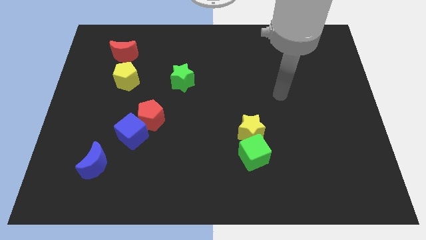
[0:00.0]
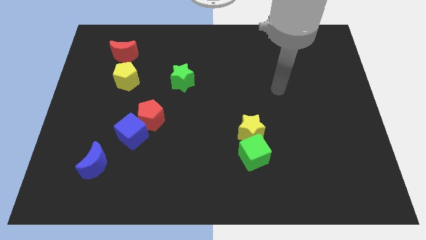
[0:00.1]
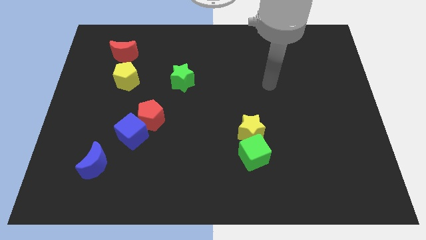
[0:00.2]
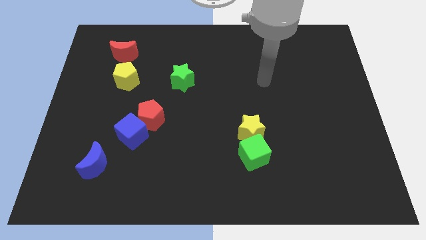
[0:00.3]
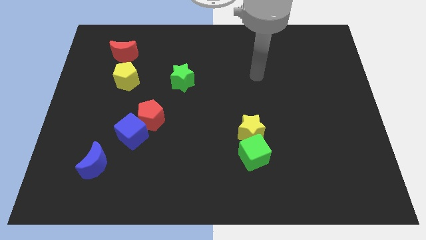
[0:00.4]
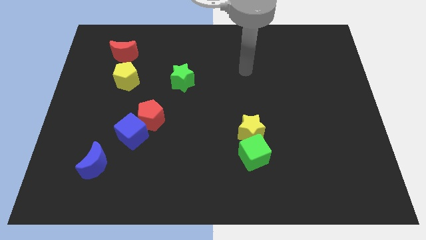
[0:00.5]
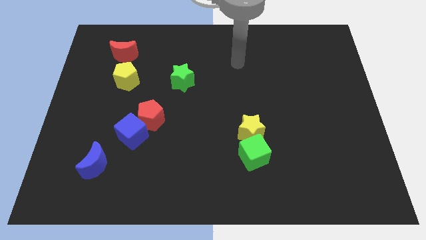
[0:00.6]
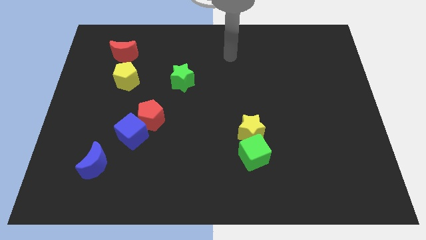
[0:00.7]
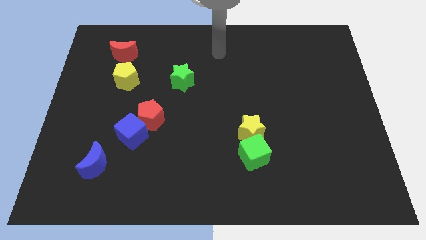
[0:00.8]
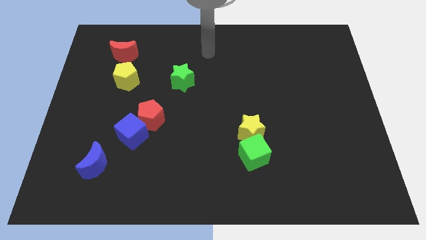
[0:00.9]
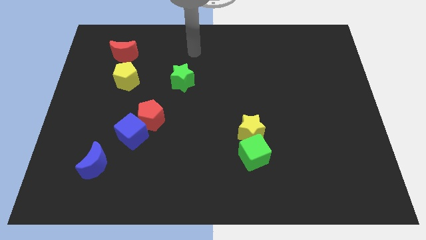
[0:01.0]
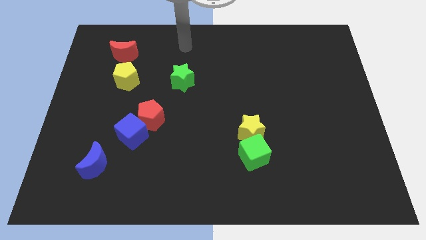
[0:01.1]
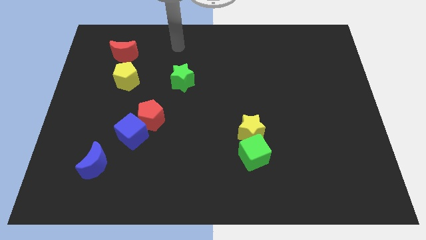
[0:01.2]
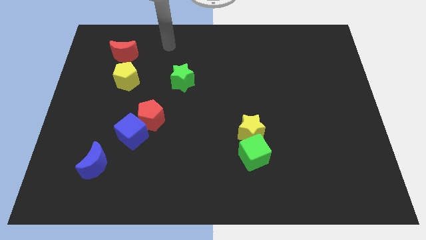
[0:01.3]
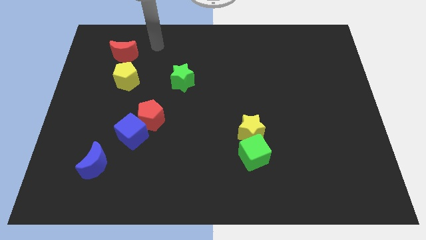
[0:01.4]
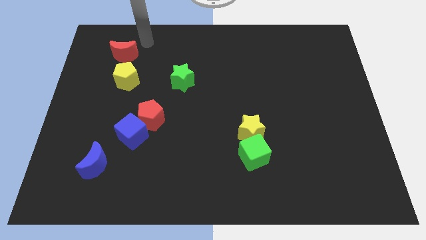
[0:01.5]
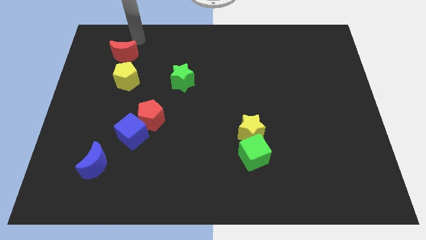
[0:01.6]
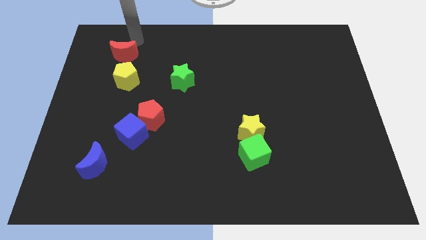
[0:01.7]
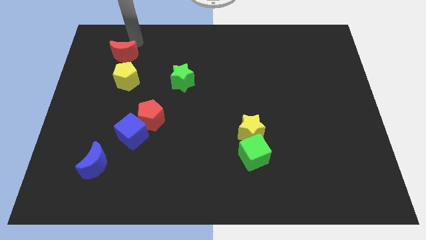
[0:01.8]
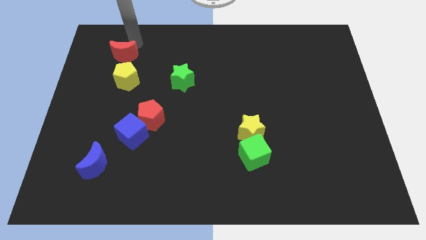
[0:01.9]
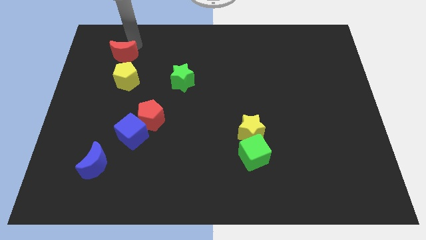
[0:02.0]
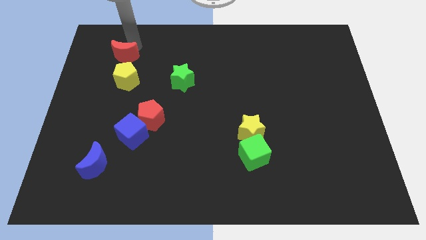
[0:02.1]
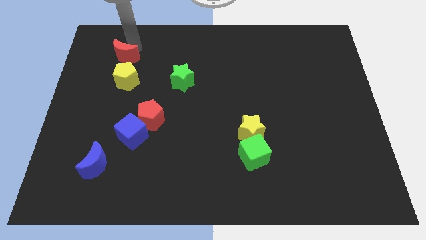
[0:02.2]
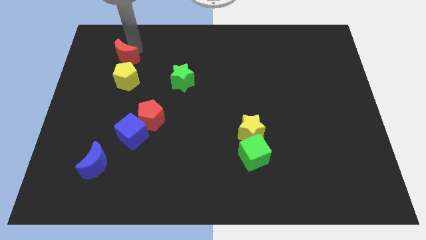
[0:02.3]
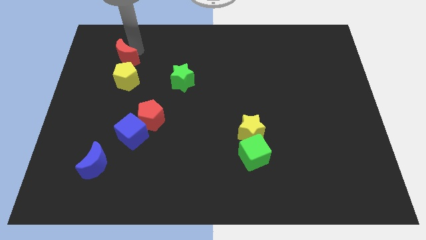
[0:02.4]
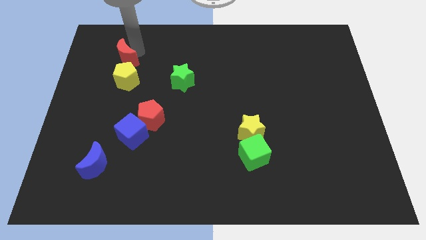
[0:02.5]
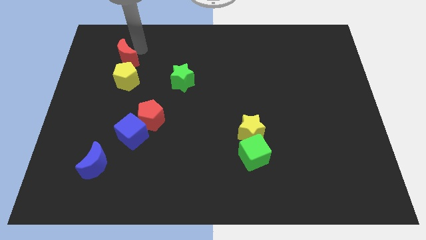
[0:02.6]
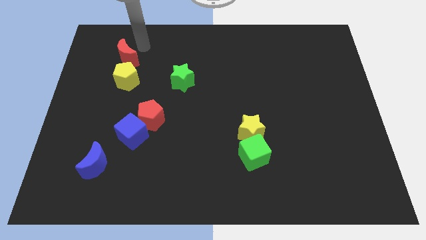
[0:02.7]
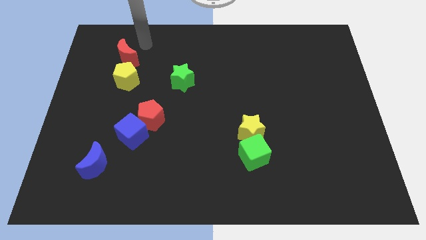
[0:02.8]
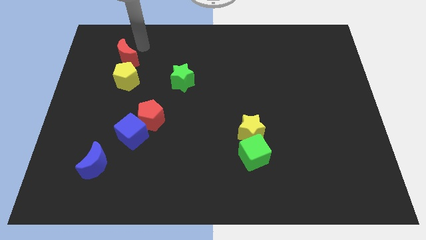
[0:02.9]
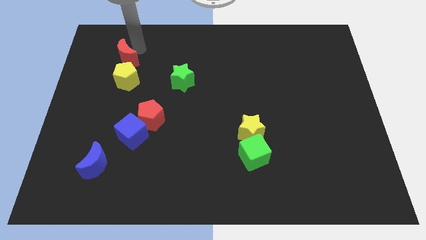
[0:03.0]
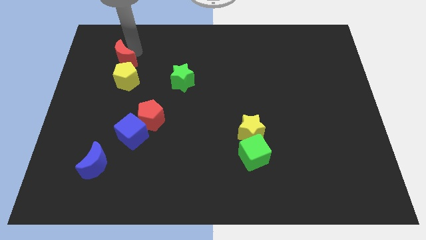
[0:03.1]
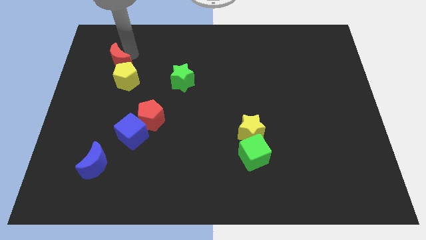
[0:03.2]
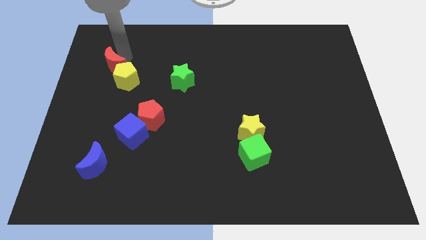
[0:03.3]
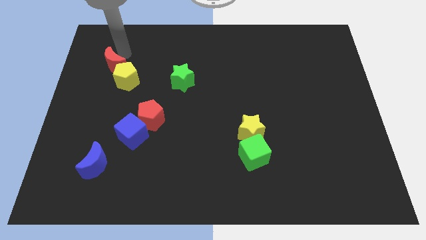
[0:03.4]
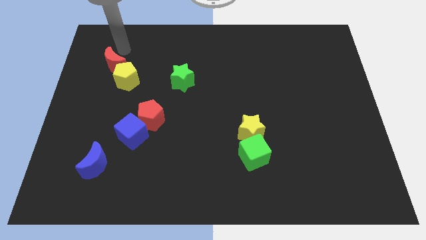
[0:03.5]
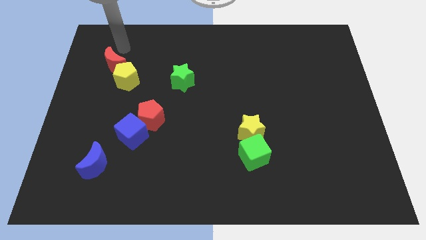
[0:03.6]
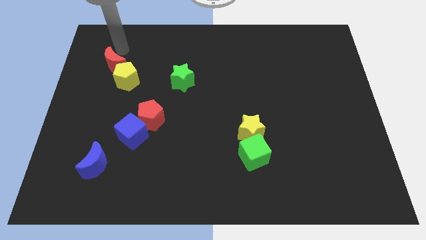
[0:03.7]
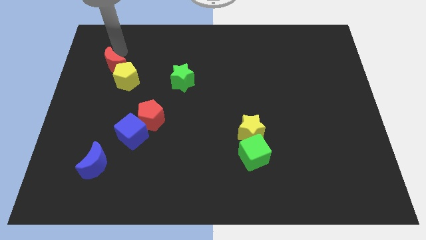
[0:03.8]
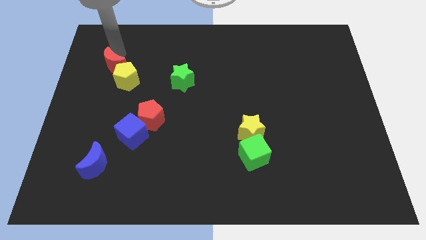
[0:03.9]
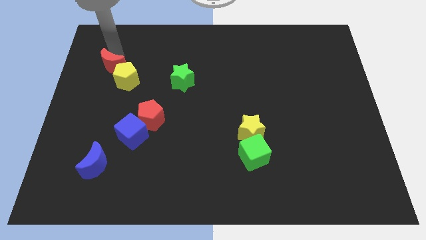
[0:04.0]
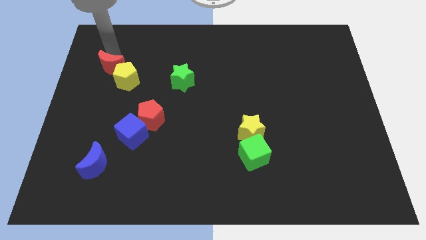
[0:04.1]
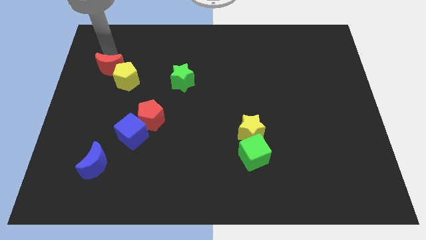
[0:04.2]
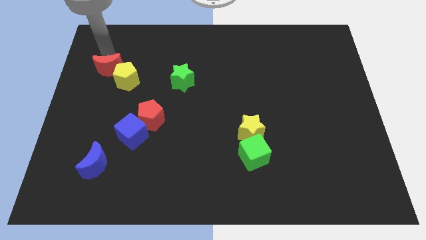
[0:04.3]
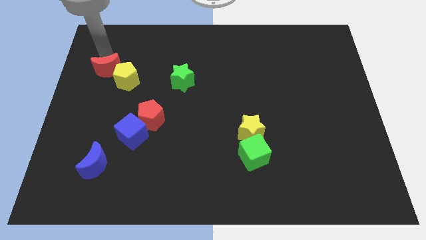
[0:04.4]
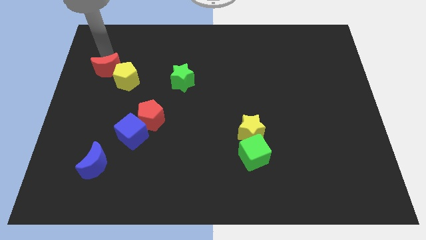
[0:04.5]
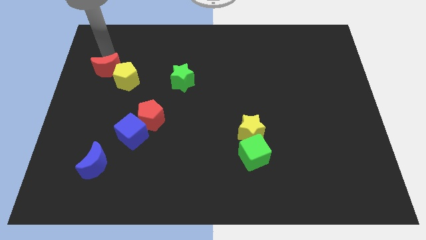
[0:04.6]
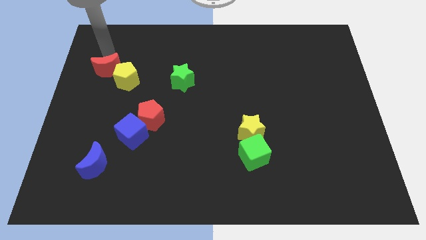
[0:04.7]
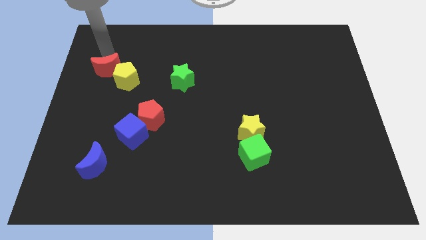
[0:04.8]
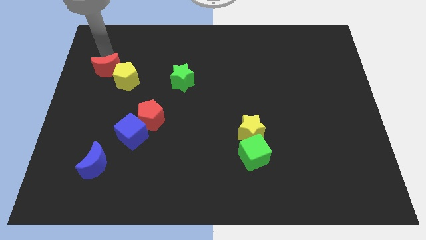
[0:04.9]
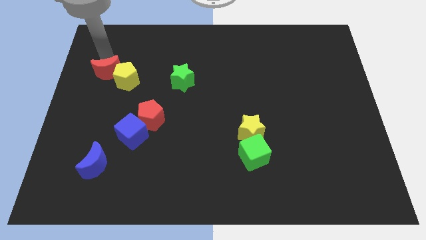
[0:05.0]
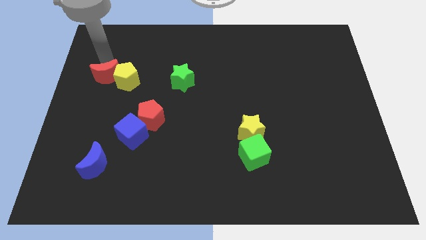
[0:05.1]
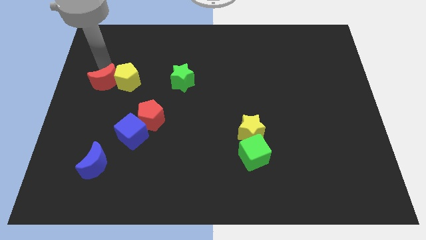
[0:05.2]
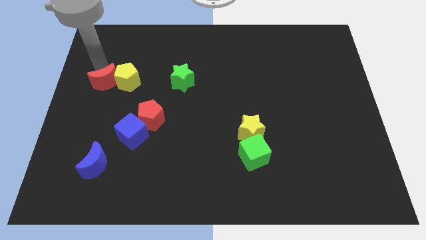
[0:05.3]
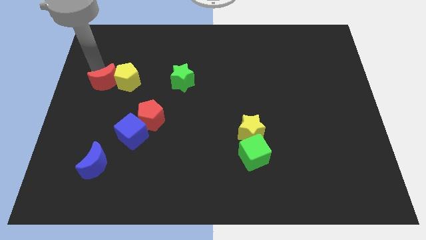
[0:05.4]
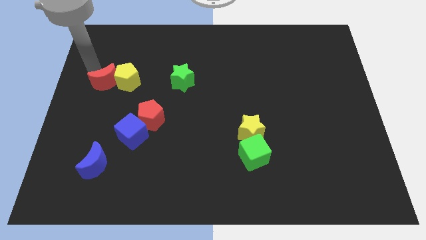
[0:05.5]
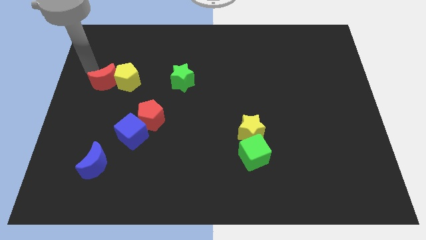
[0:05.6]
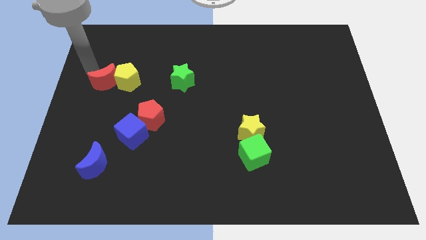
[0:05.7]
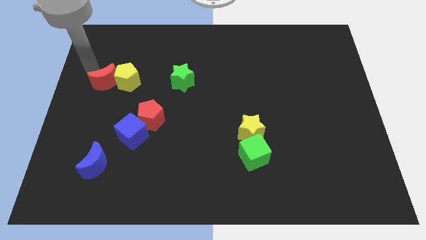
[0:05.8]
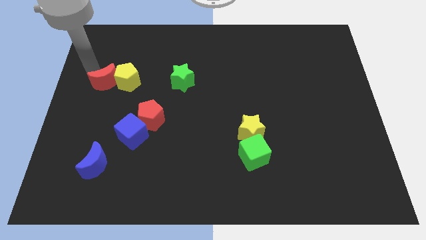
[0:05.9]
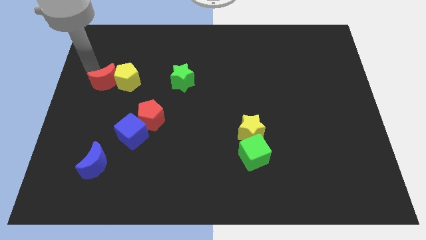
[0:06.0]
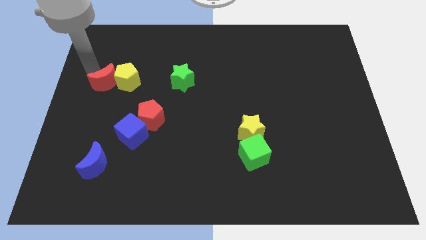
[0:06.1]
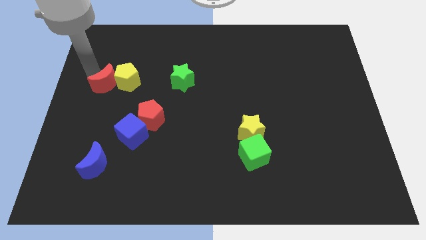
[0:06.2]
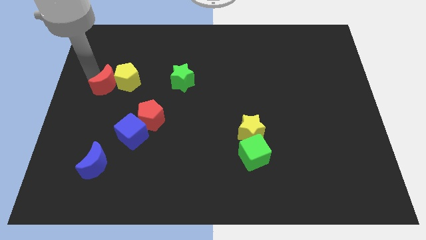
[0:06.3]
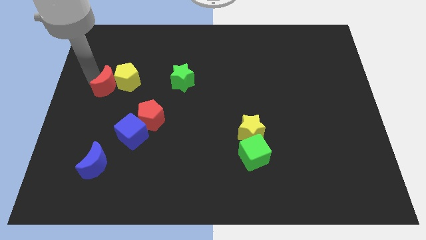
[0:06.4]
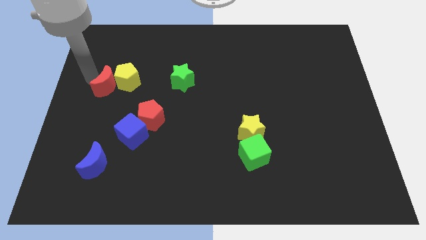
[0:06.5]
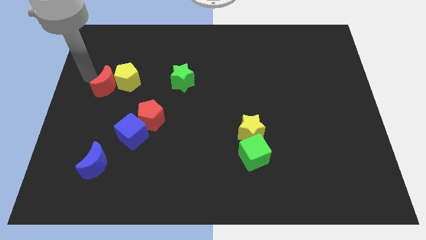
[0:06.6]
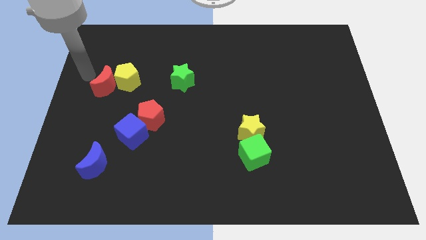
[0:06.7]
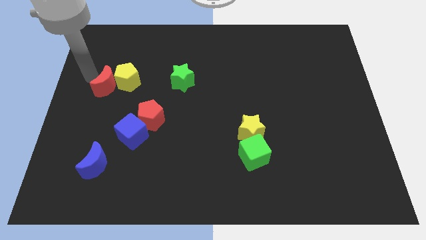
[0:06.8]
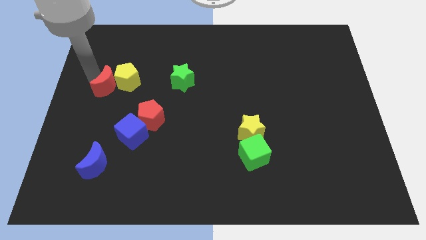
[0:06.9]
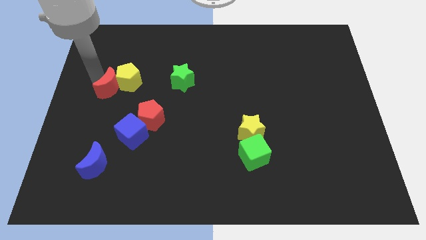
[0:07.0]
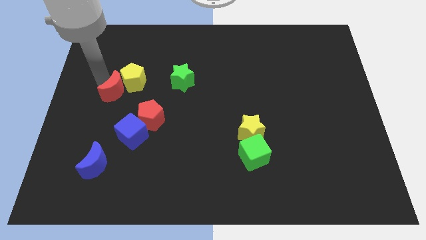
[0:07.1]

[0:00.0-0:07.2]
slide the red moon to the top left of the red pentagon
